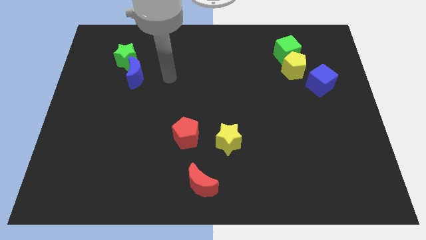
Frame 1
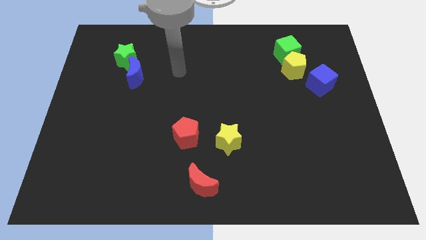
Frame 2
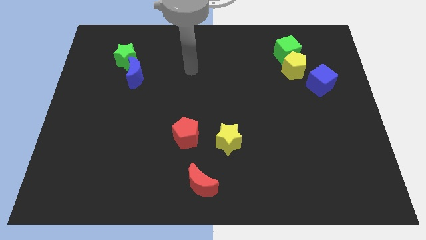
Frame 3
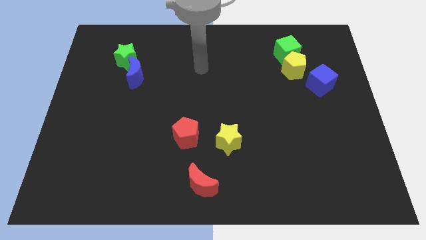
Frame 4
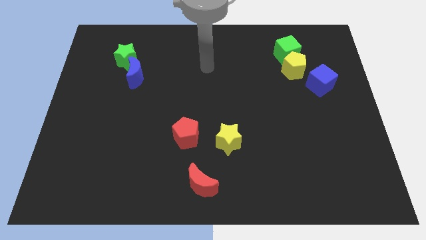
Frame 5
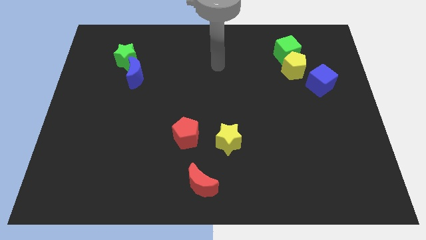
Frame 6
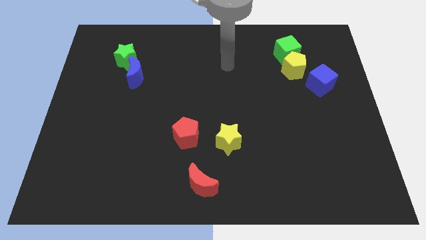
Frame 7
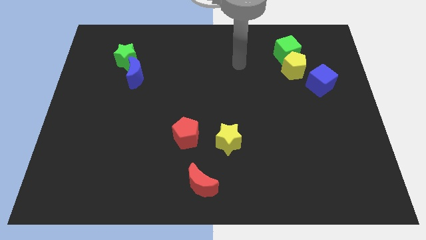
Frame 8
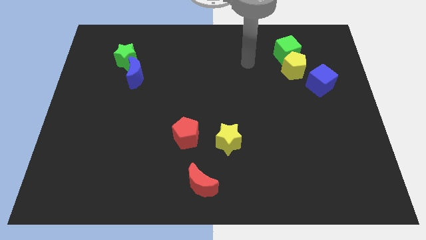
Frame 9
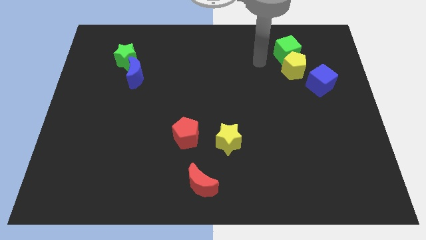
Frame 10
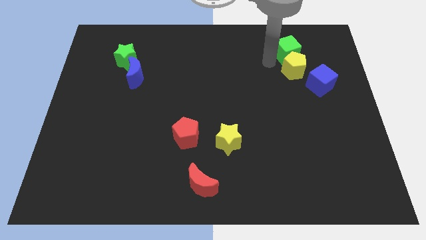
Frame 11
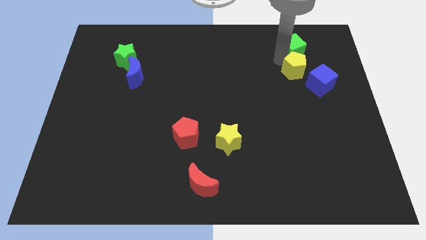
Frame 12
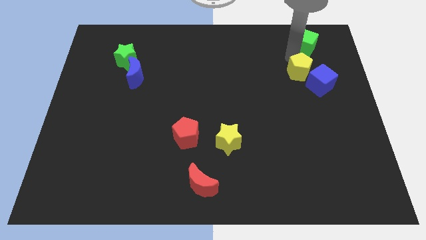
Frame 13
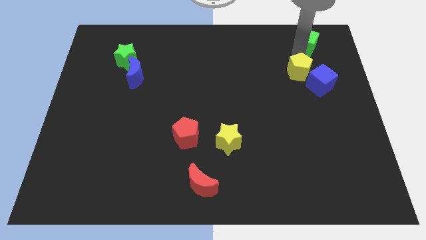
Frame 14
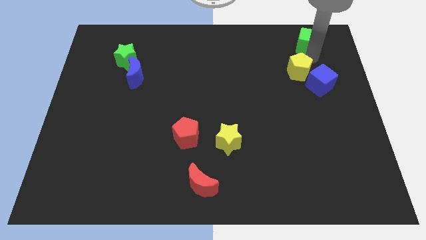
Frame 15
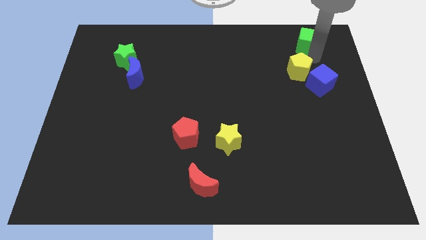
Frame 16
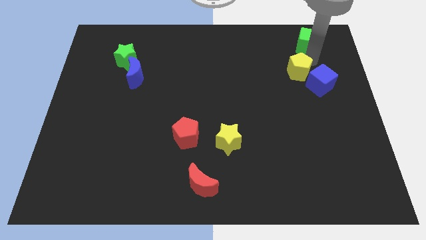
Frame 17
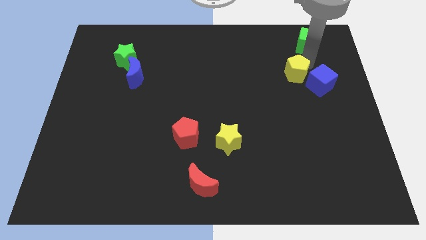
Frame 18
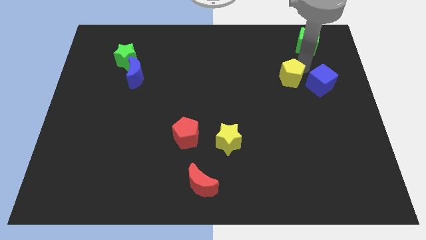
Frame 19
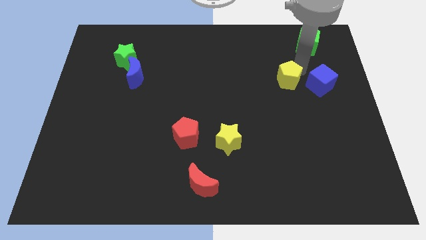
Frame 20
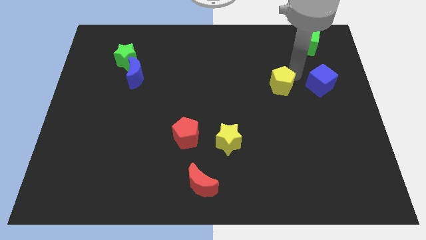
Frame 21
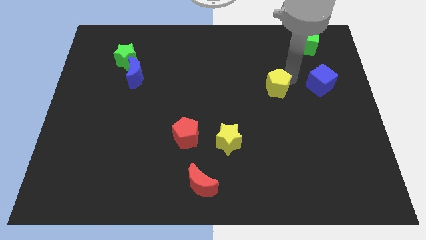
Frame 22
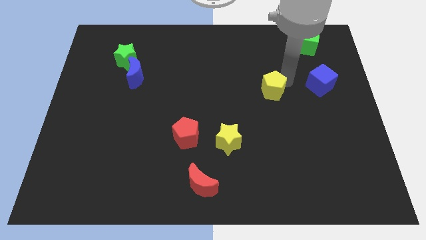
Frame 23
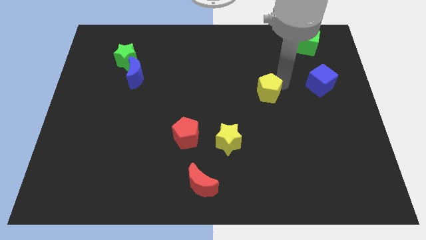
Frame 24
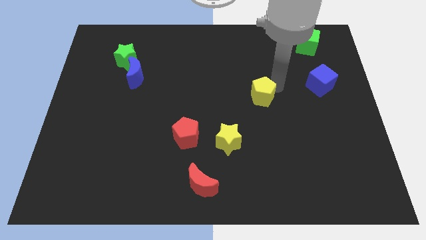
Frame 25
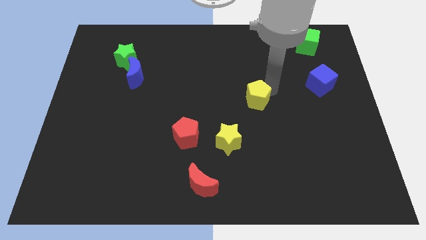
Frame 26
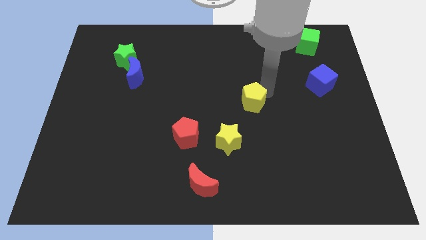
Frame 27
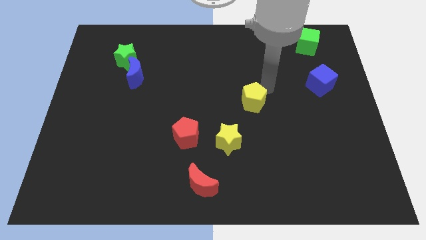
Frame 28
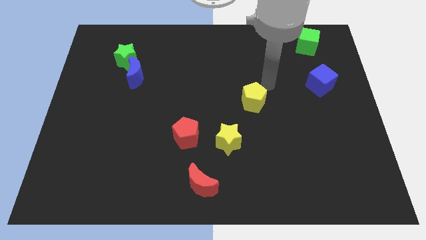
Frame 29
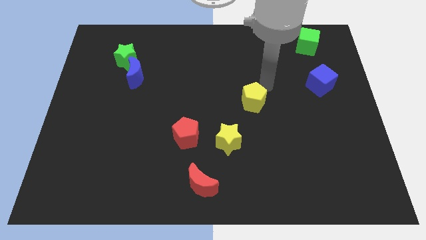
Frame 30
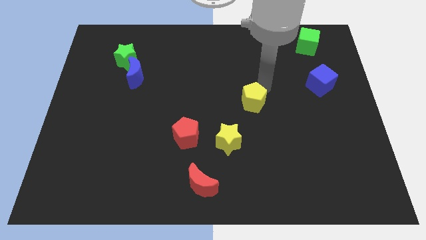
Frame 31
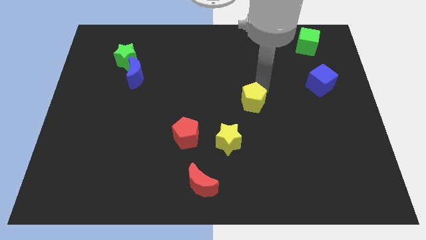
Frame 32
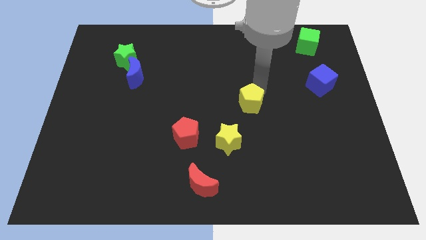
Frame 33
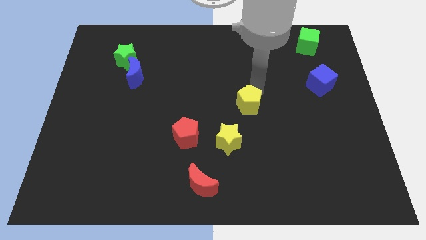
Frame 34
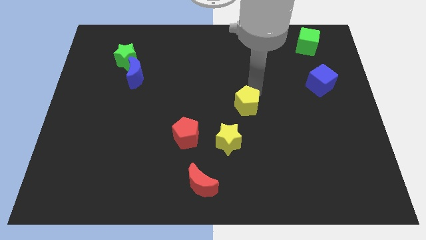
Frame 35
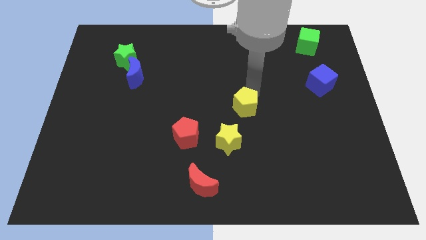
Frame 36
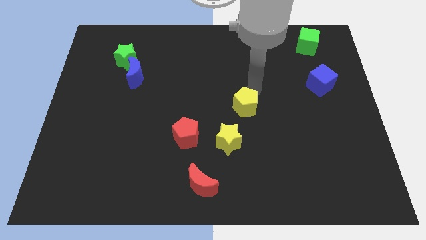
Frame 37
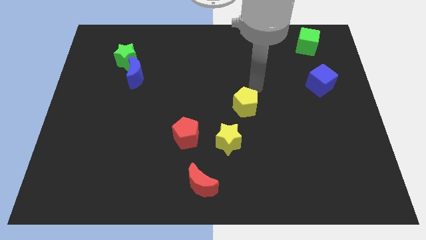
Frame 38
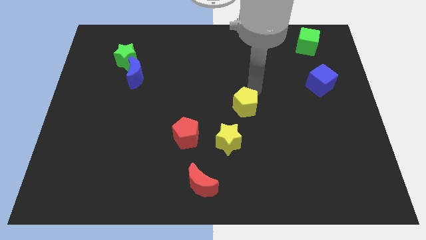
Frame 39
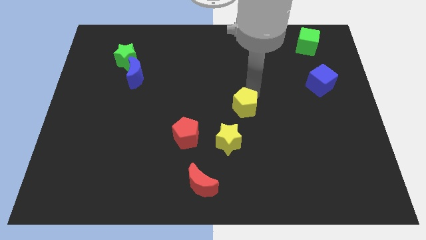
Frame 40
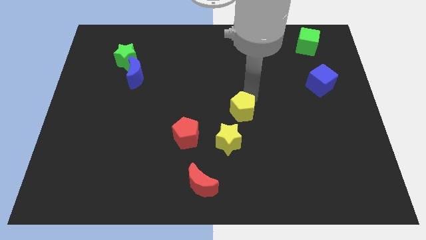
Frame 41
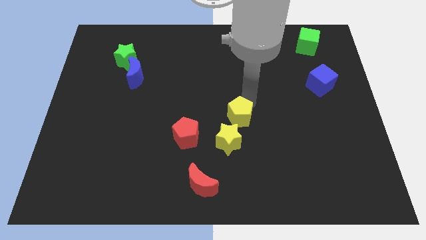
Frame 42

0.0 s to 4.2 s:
push the yellow pentagon downwards and to the left

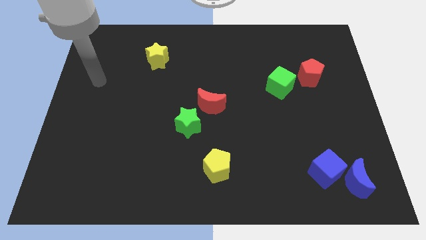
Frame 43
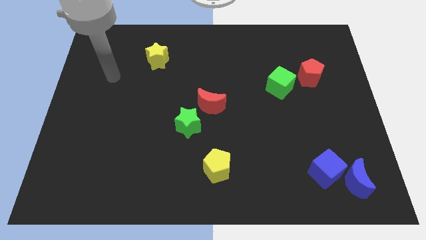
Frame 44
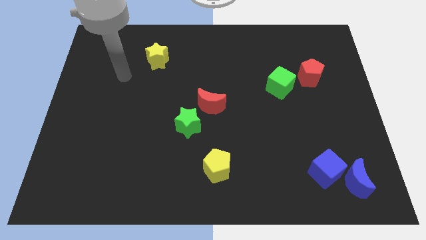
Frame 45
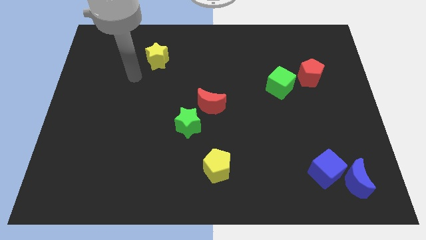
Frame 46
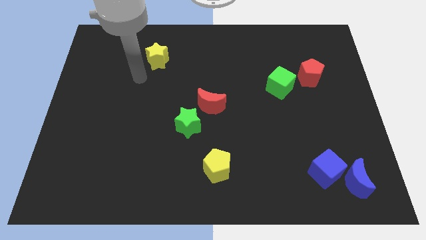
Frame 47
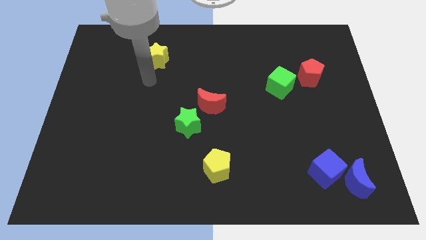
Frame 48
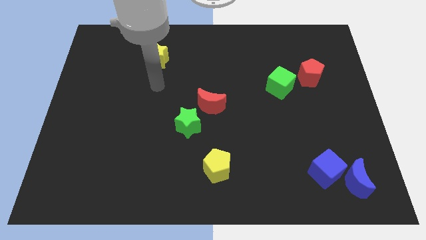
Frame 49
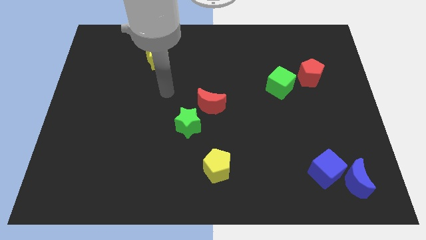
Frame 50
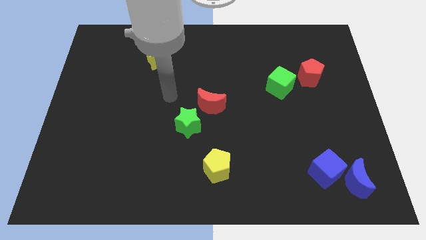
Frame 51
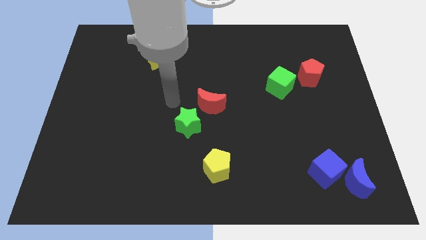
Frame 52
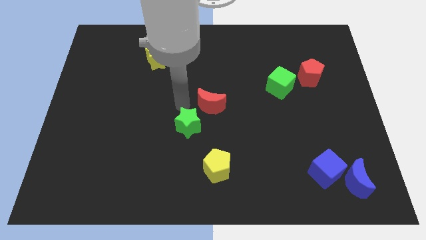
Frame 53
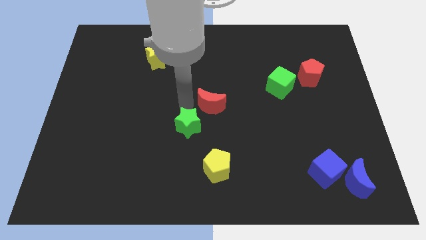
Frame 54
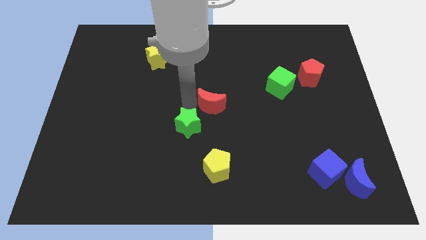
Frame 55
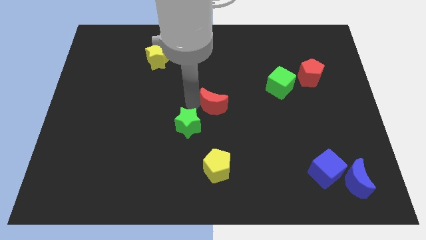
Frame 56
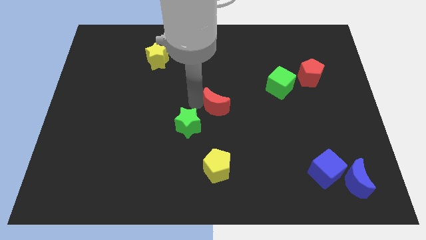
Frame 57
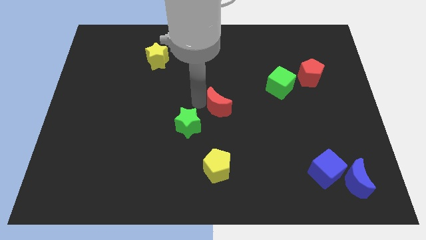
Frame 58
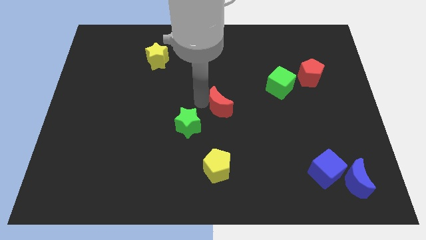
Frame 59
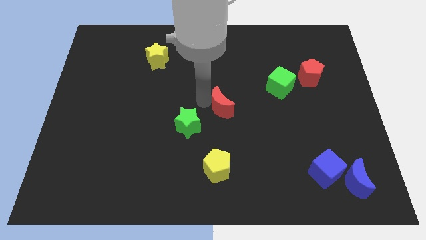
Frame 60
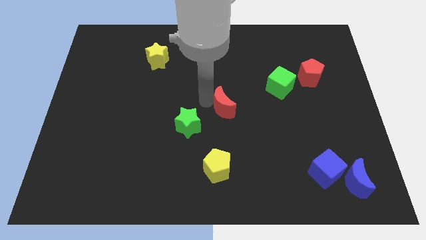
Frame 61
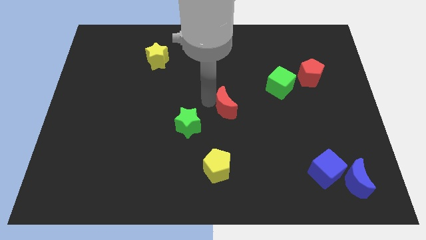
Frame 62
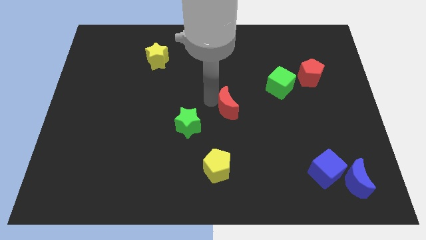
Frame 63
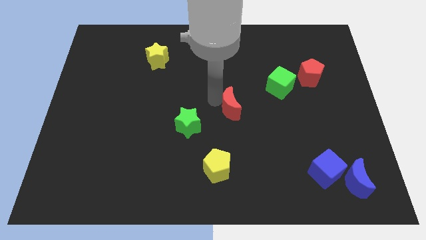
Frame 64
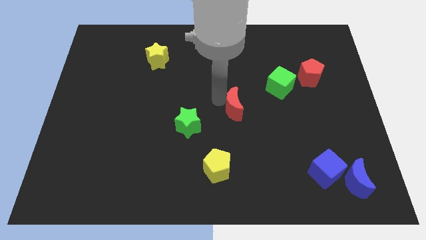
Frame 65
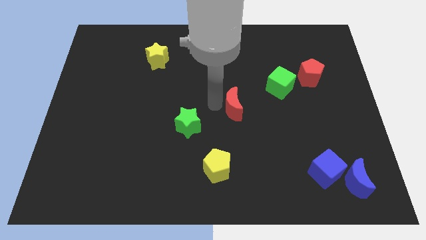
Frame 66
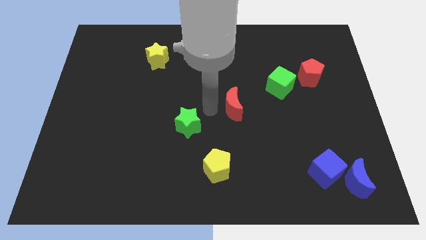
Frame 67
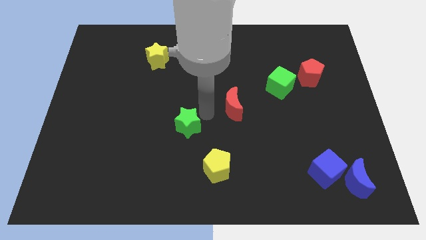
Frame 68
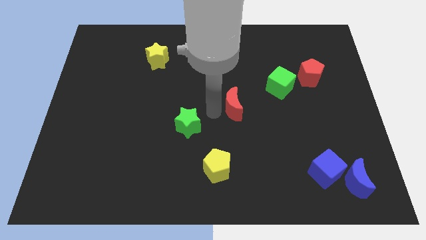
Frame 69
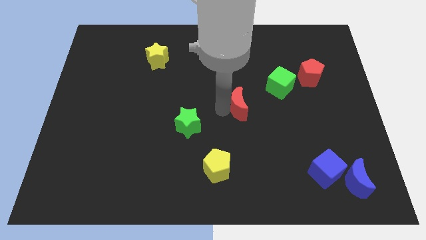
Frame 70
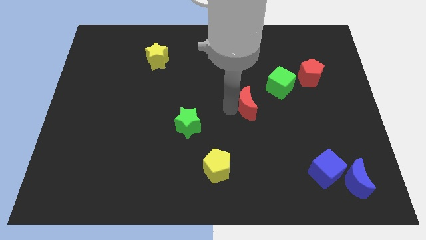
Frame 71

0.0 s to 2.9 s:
move the red moon right a little bit

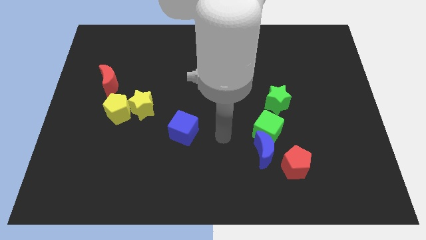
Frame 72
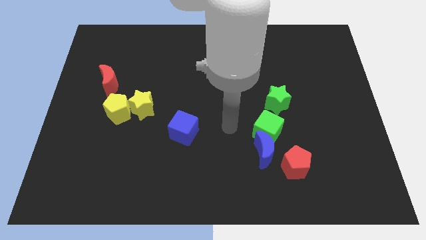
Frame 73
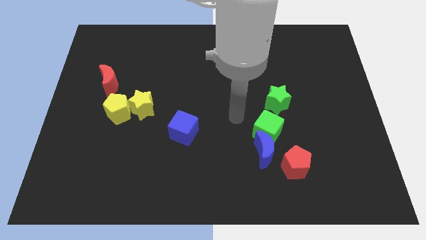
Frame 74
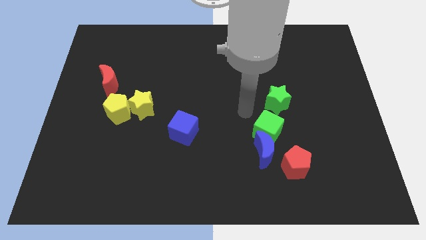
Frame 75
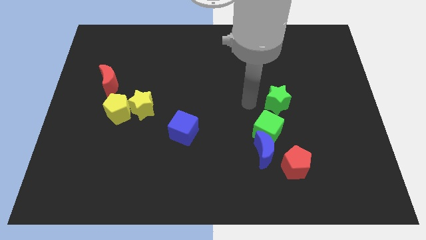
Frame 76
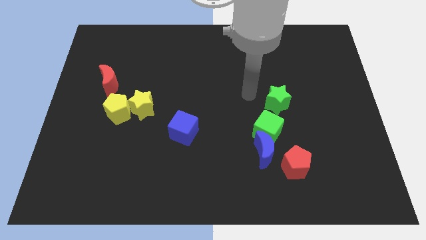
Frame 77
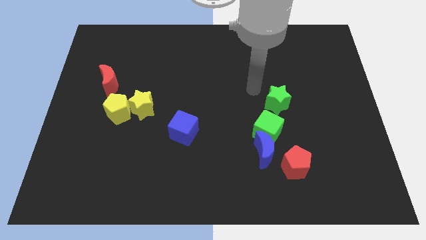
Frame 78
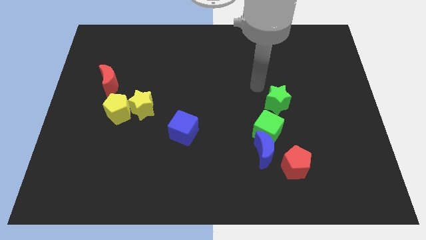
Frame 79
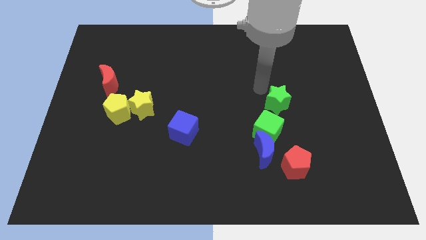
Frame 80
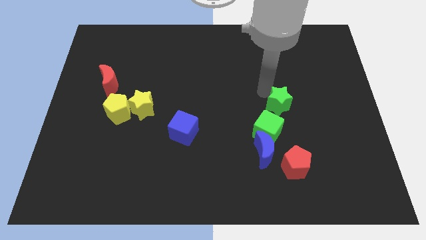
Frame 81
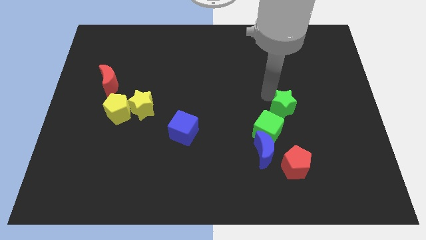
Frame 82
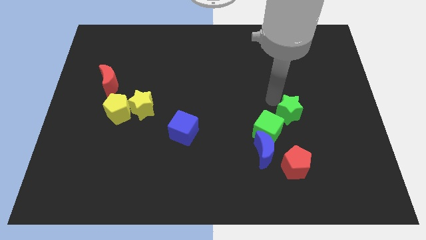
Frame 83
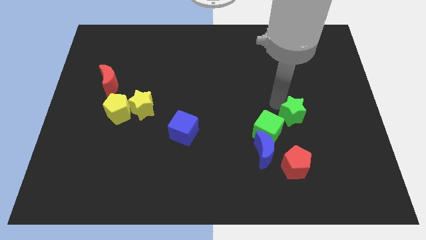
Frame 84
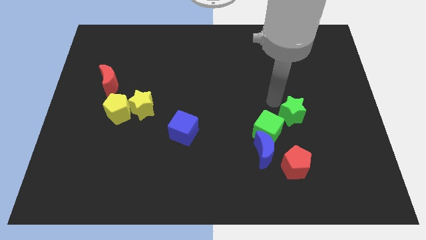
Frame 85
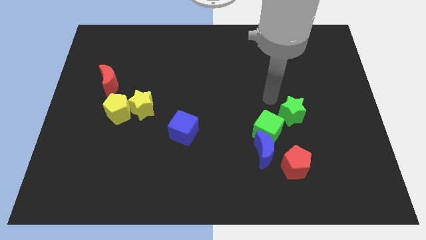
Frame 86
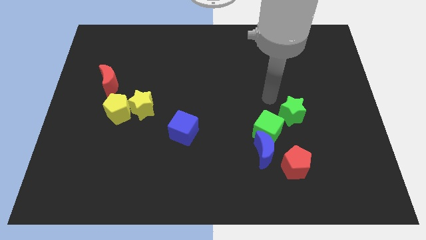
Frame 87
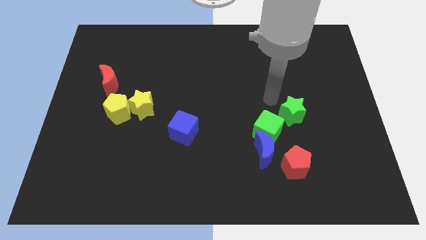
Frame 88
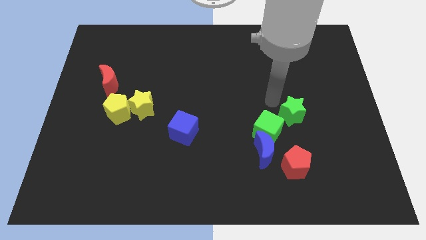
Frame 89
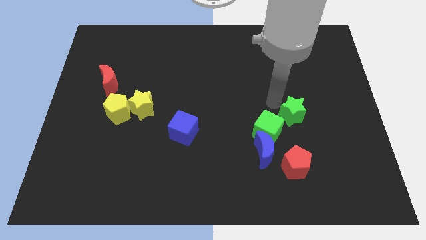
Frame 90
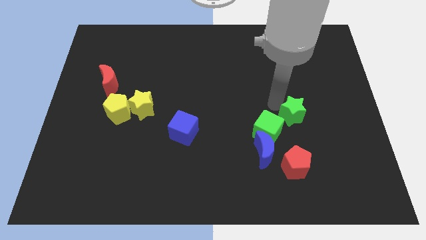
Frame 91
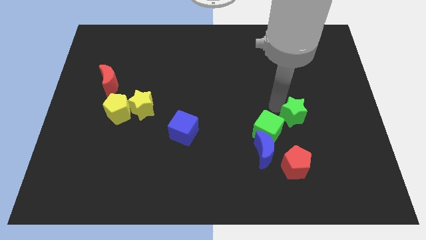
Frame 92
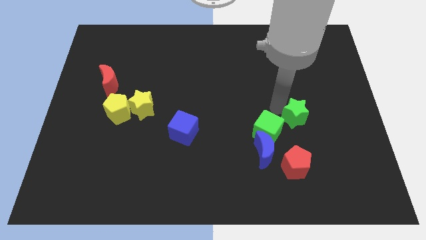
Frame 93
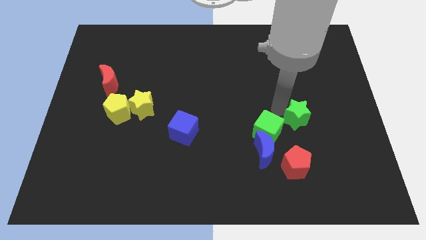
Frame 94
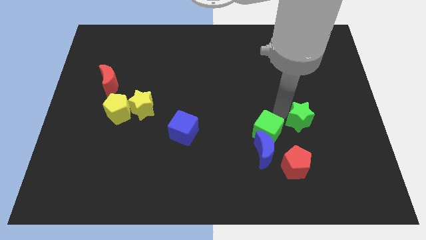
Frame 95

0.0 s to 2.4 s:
slightly push the green star downwards and right diagonally
